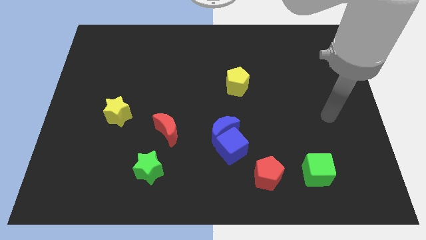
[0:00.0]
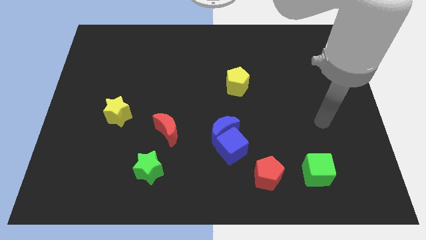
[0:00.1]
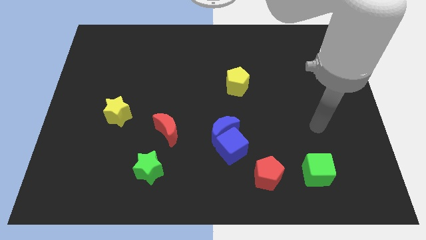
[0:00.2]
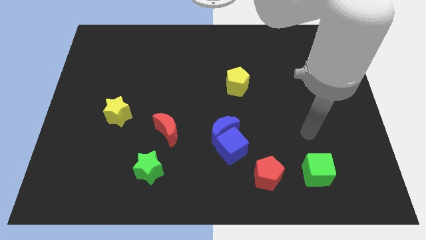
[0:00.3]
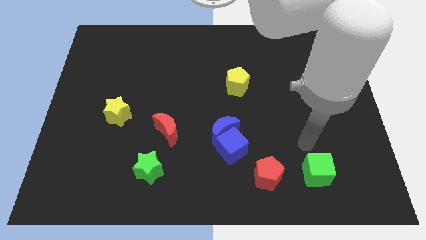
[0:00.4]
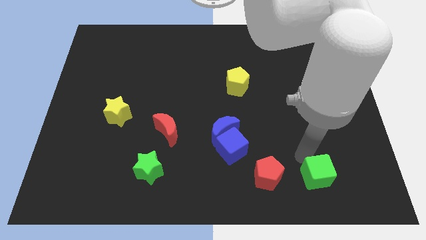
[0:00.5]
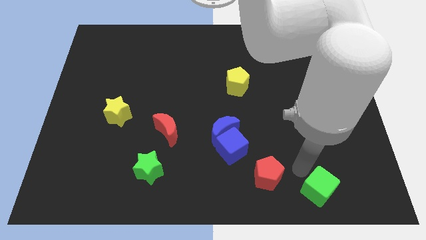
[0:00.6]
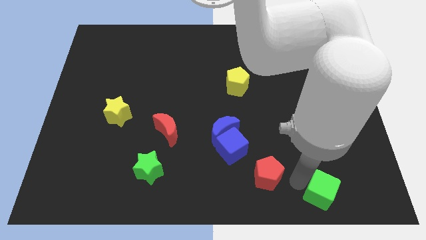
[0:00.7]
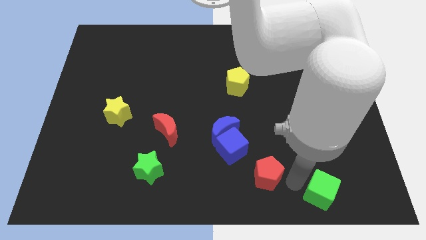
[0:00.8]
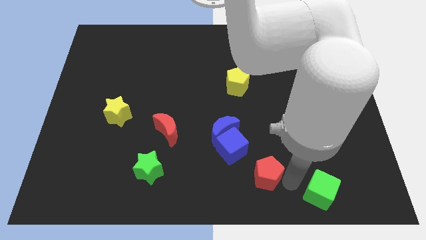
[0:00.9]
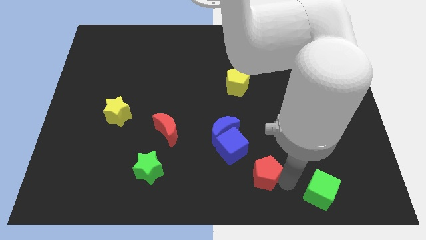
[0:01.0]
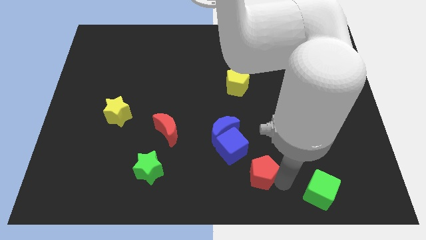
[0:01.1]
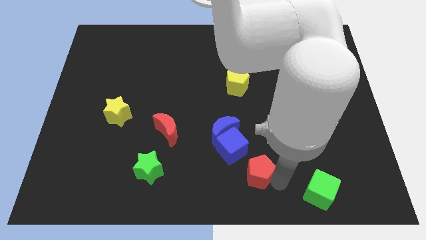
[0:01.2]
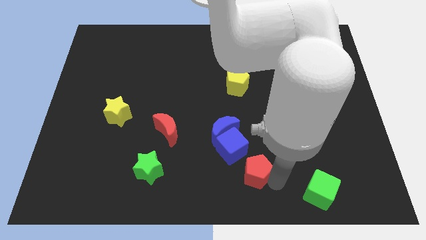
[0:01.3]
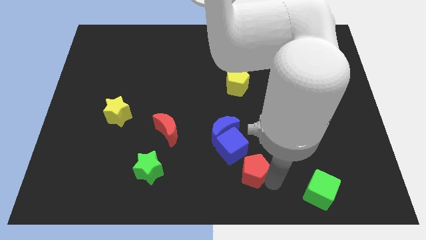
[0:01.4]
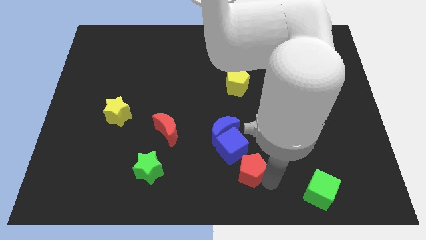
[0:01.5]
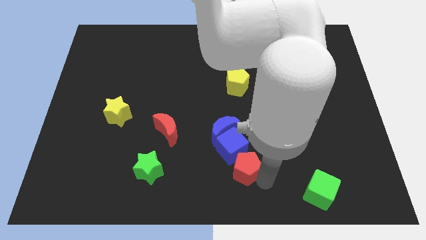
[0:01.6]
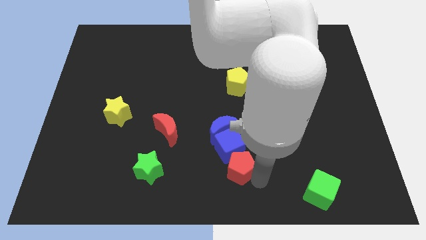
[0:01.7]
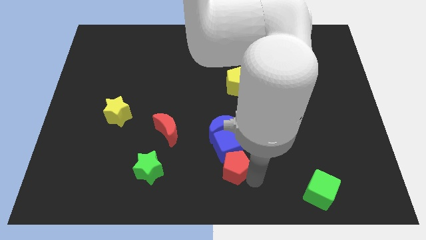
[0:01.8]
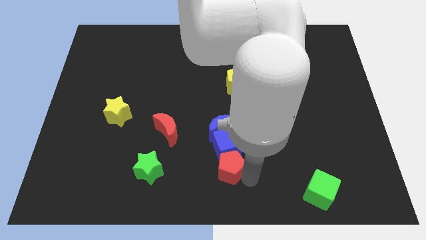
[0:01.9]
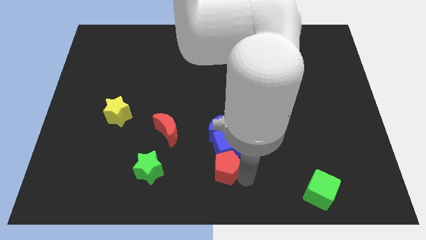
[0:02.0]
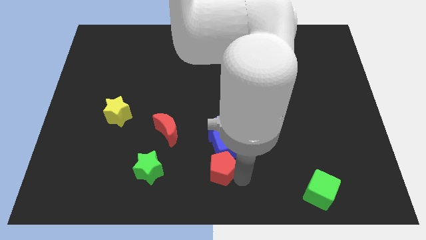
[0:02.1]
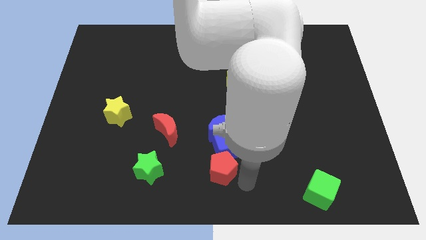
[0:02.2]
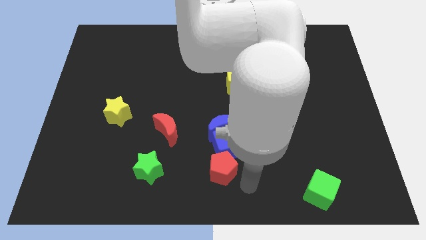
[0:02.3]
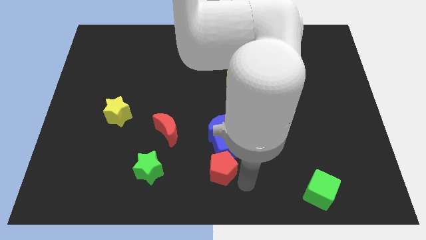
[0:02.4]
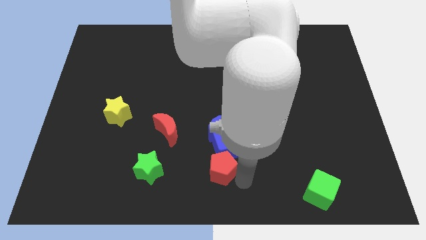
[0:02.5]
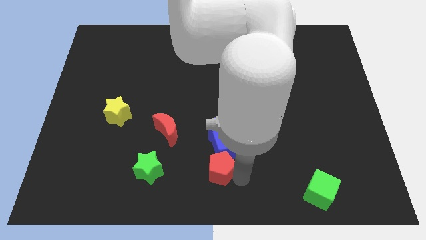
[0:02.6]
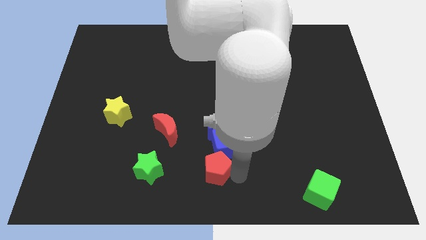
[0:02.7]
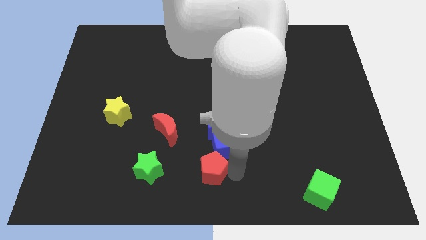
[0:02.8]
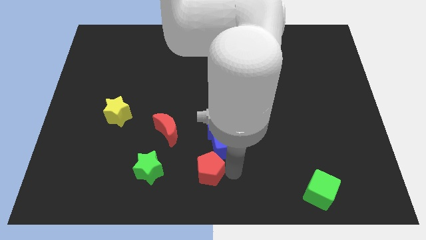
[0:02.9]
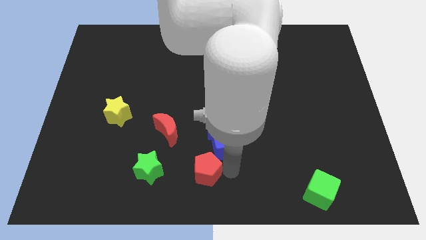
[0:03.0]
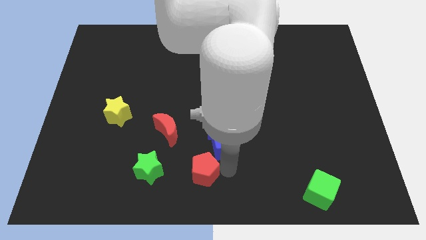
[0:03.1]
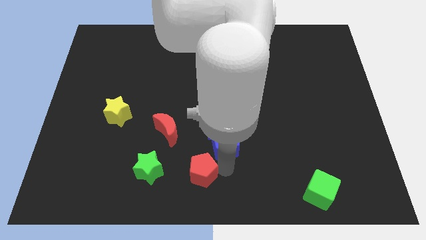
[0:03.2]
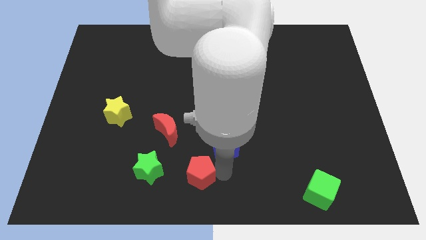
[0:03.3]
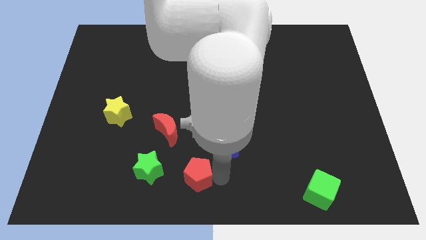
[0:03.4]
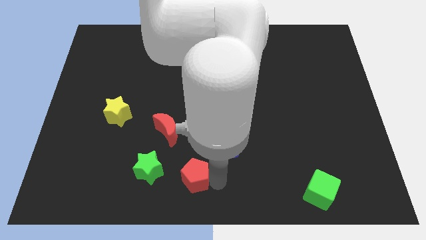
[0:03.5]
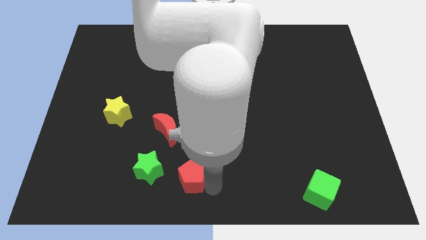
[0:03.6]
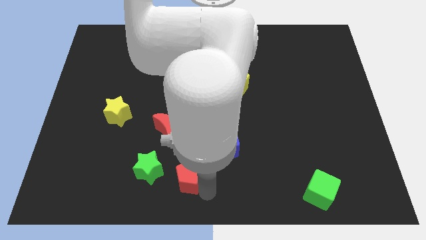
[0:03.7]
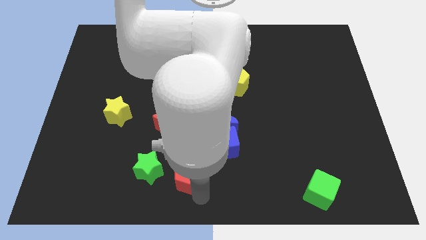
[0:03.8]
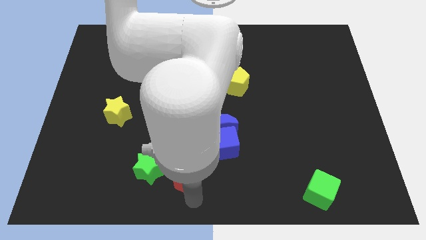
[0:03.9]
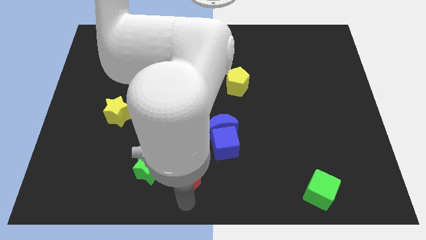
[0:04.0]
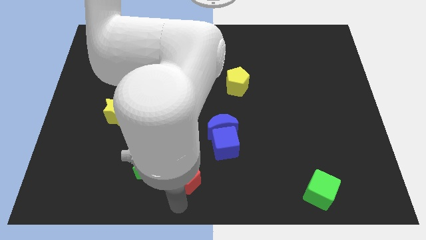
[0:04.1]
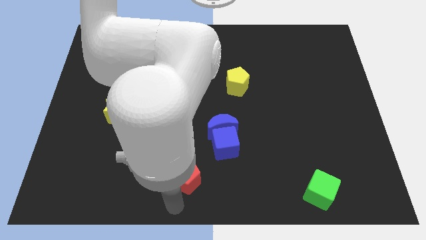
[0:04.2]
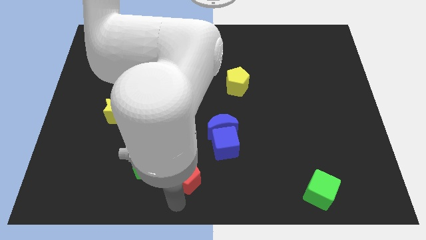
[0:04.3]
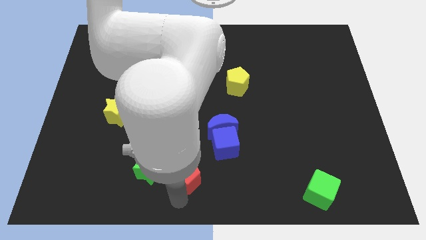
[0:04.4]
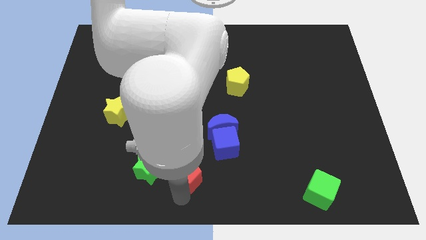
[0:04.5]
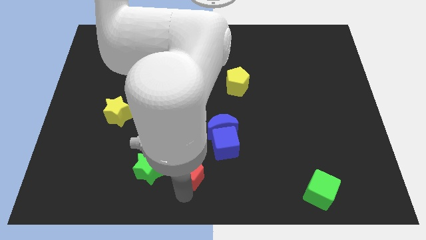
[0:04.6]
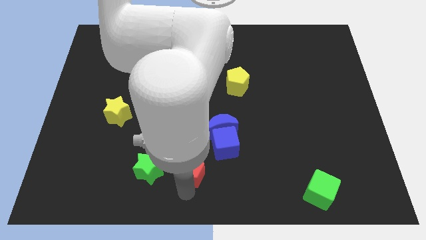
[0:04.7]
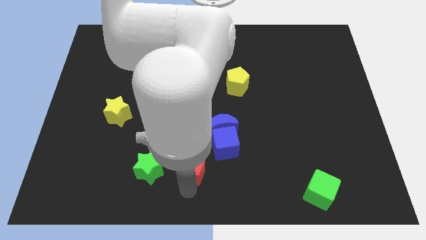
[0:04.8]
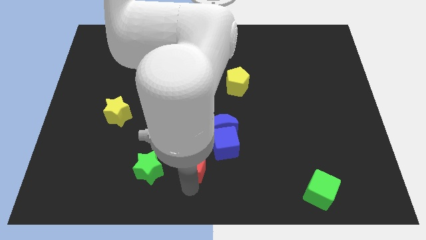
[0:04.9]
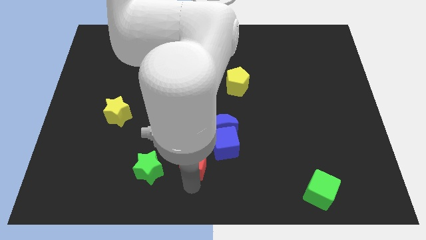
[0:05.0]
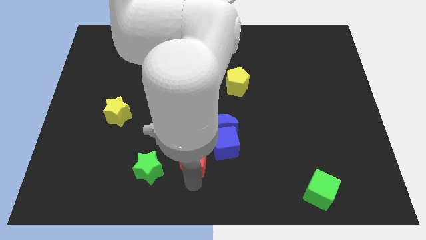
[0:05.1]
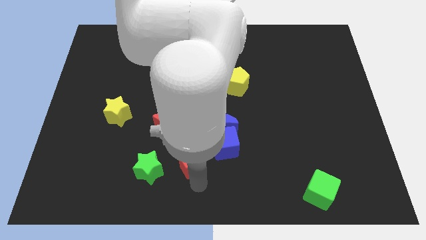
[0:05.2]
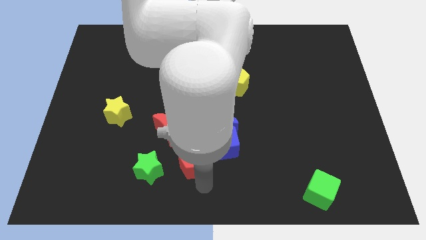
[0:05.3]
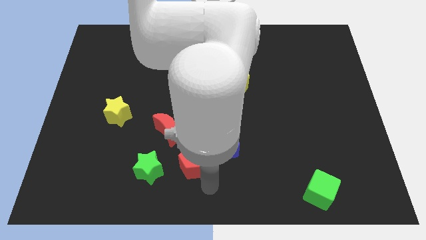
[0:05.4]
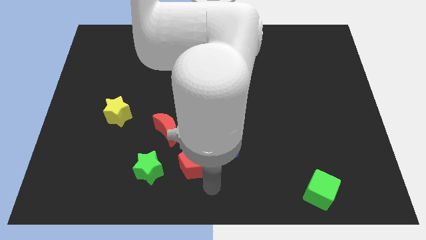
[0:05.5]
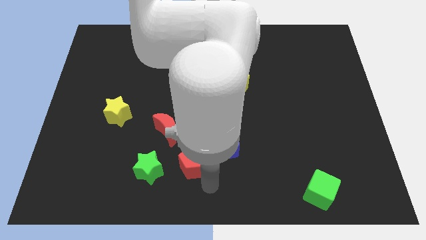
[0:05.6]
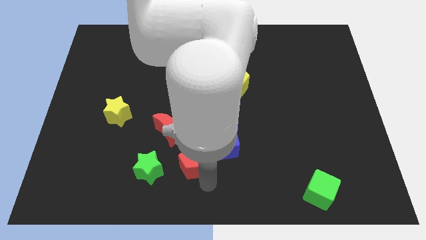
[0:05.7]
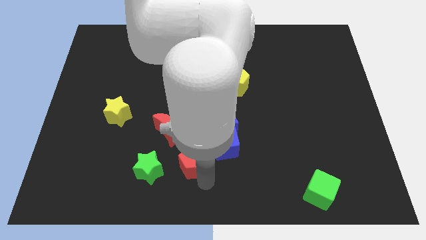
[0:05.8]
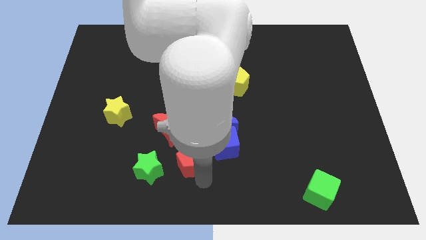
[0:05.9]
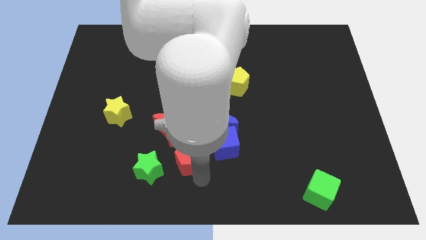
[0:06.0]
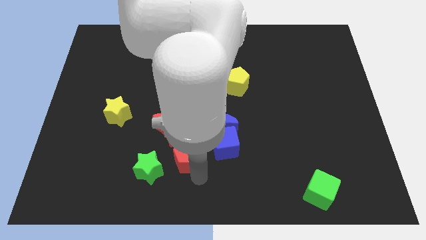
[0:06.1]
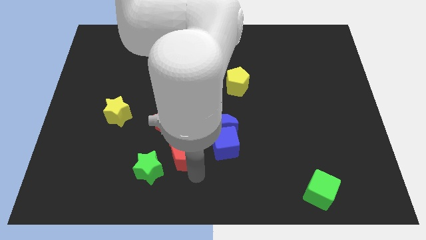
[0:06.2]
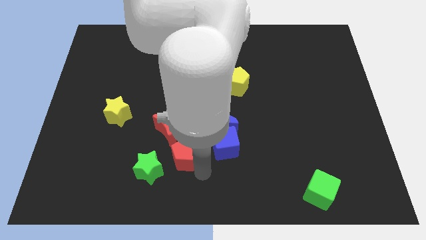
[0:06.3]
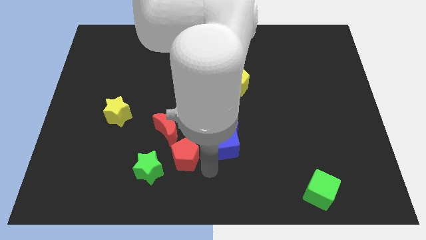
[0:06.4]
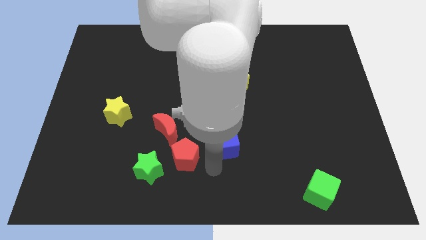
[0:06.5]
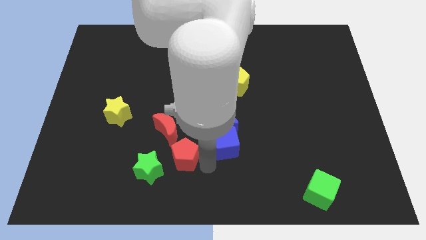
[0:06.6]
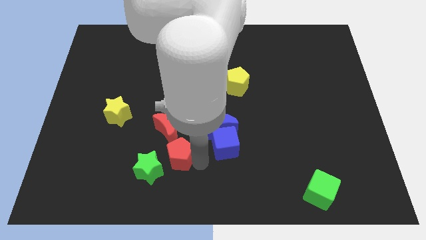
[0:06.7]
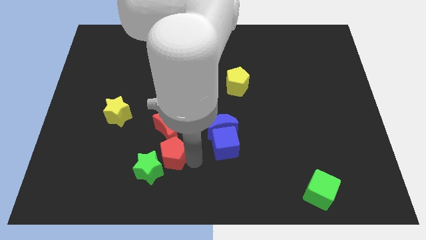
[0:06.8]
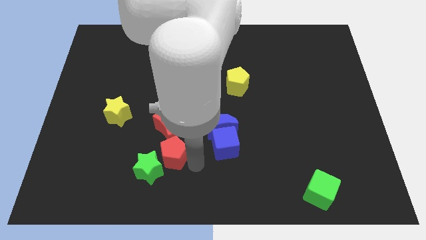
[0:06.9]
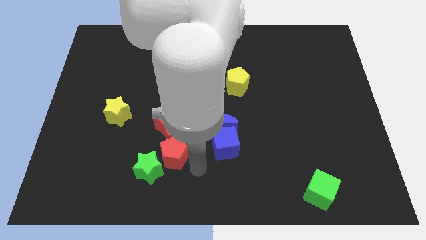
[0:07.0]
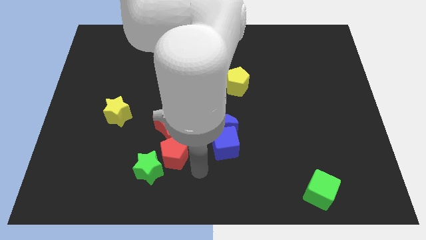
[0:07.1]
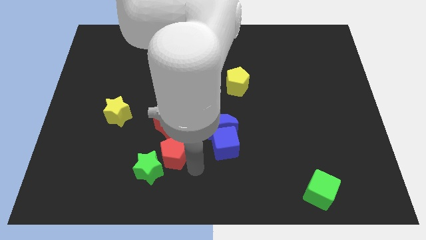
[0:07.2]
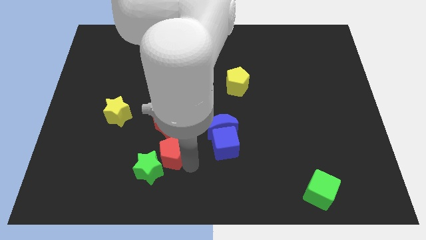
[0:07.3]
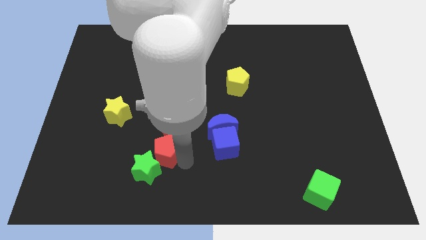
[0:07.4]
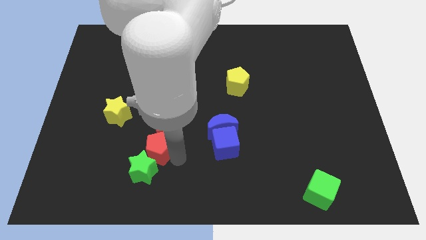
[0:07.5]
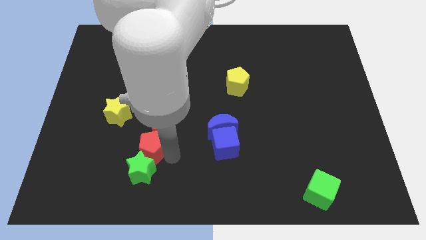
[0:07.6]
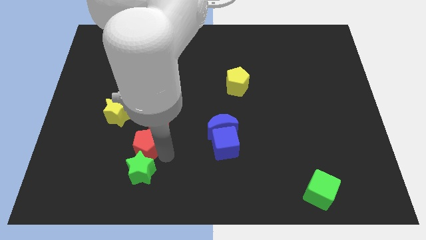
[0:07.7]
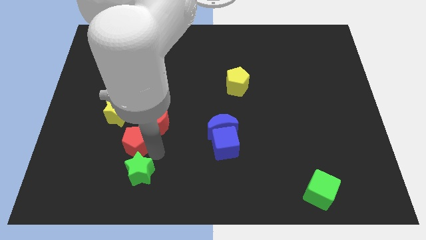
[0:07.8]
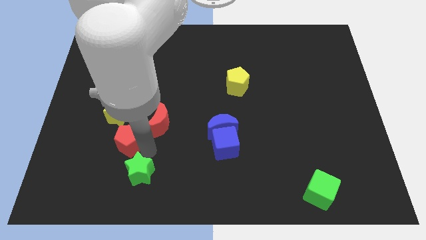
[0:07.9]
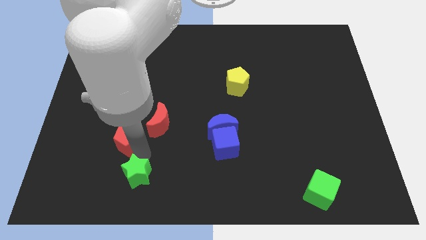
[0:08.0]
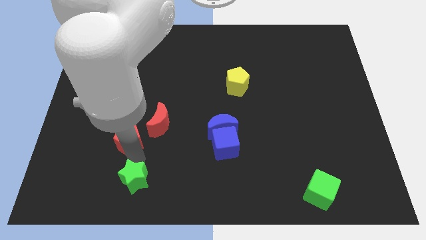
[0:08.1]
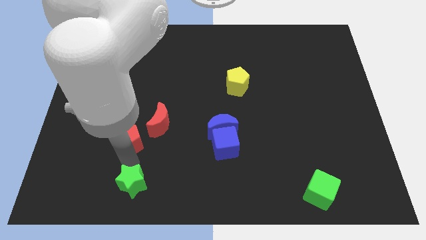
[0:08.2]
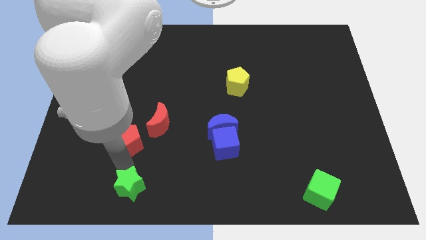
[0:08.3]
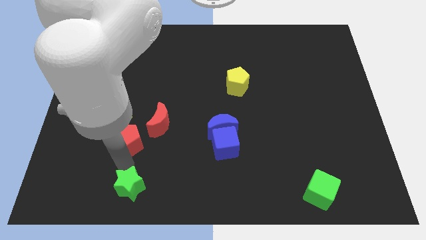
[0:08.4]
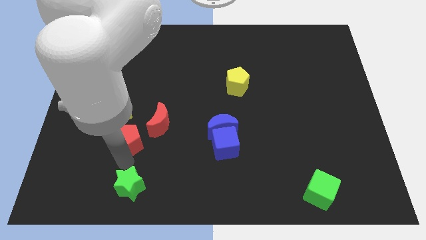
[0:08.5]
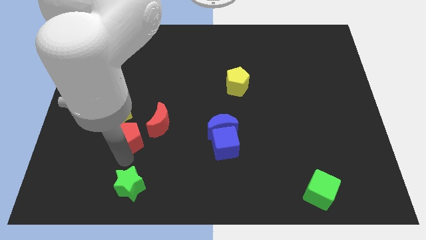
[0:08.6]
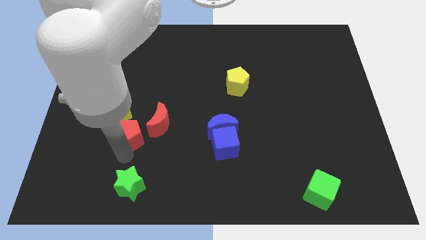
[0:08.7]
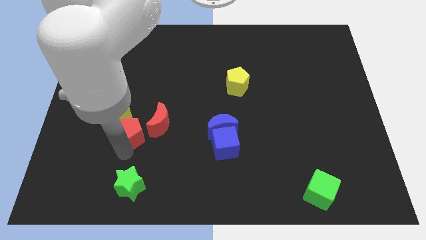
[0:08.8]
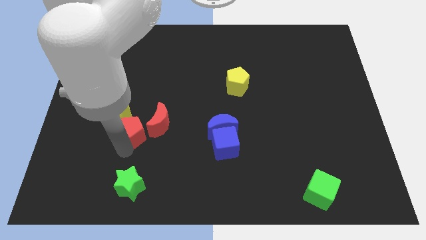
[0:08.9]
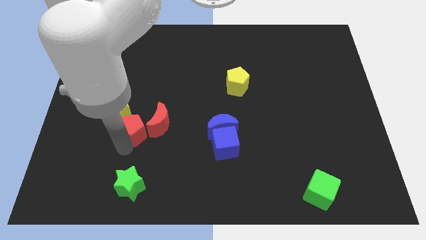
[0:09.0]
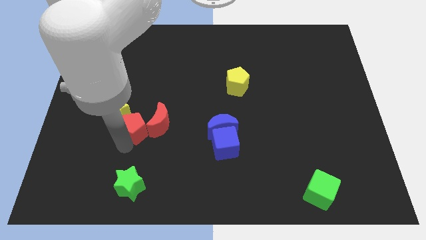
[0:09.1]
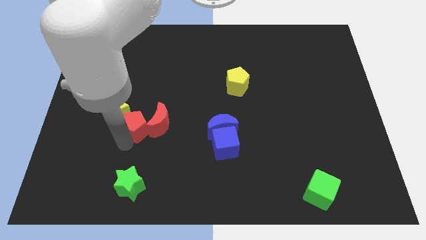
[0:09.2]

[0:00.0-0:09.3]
push the red pentagon close to the yellow star
